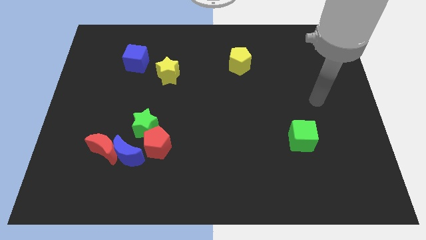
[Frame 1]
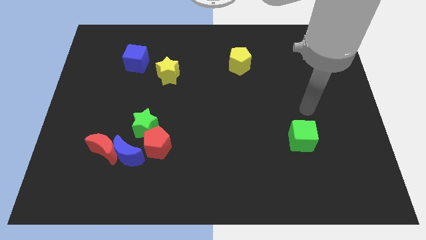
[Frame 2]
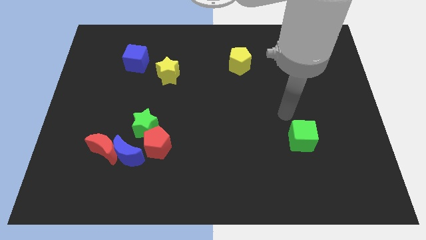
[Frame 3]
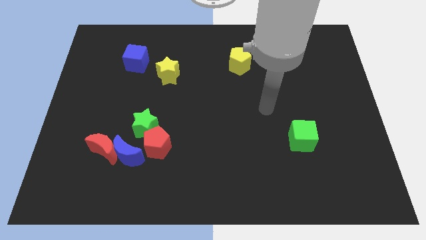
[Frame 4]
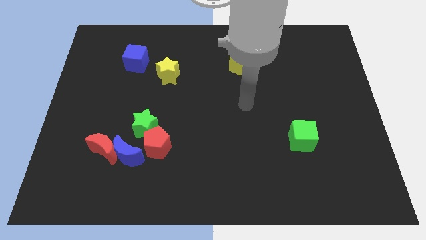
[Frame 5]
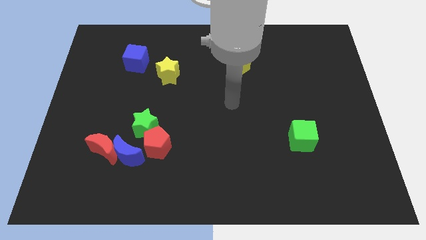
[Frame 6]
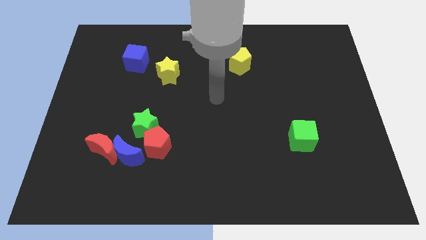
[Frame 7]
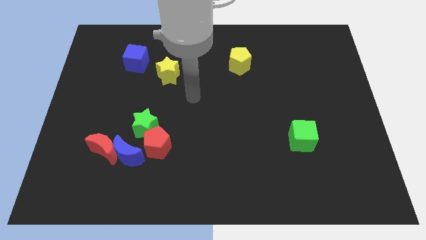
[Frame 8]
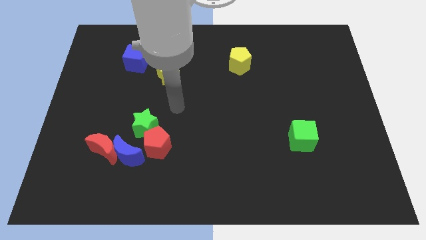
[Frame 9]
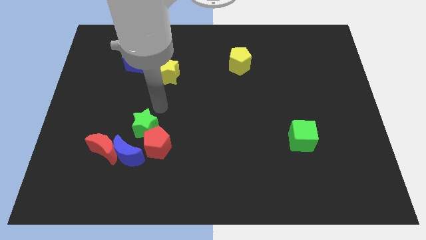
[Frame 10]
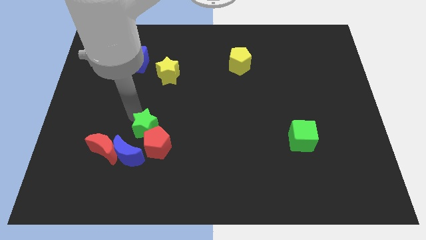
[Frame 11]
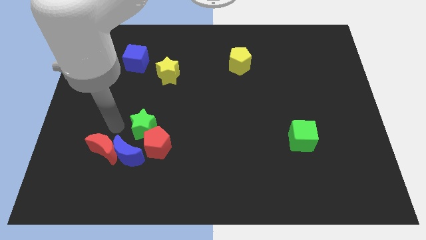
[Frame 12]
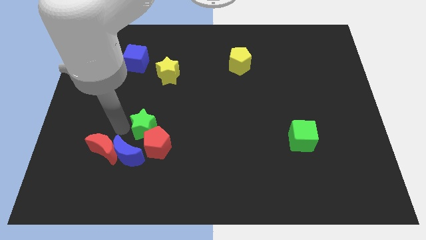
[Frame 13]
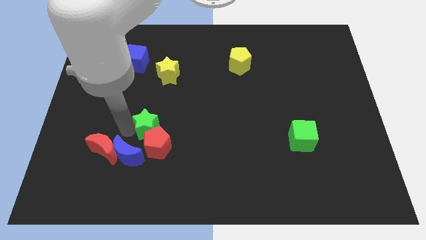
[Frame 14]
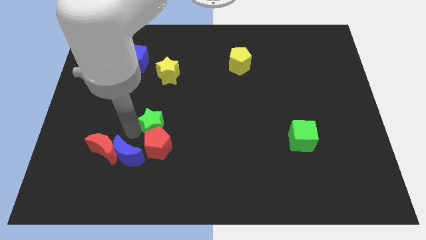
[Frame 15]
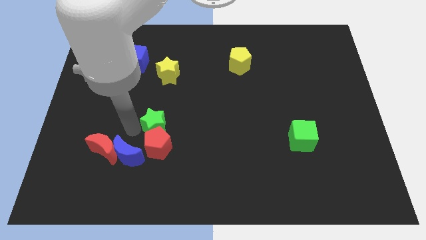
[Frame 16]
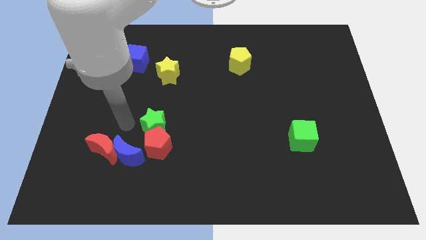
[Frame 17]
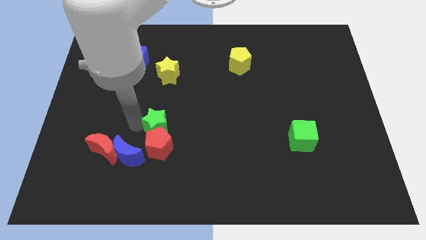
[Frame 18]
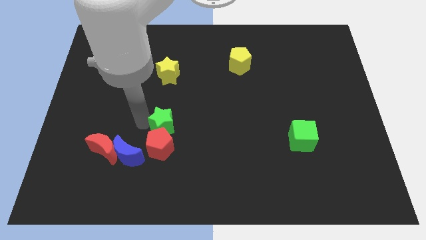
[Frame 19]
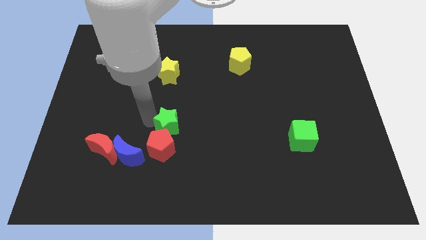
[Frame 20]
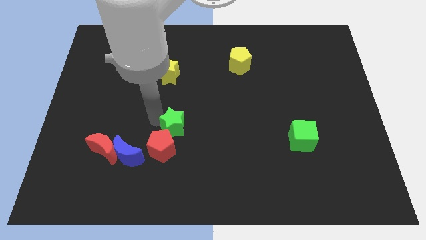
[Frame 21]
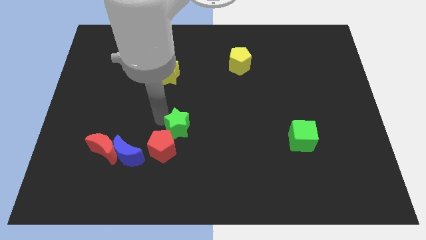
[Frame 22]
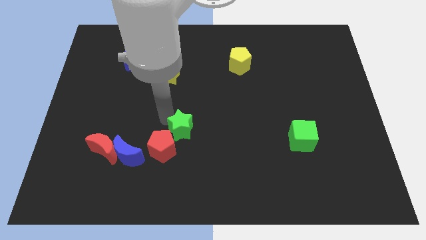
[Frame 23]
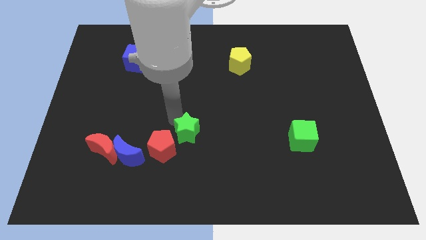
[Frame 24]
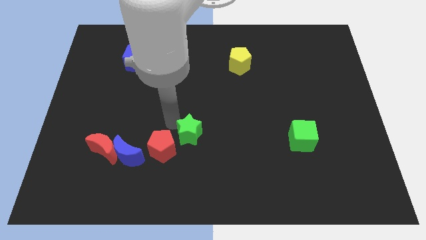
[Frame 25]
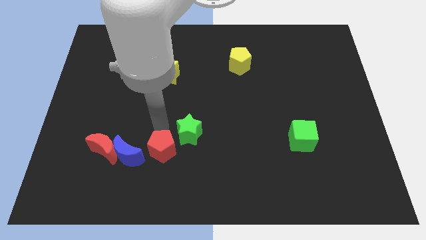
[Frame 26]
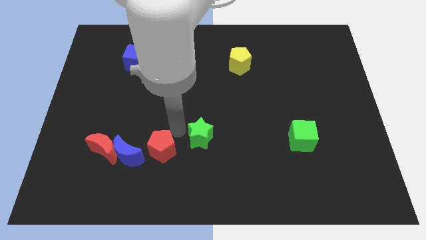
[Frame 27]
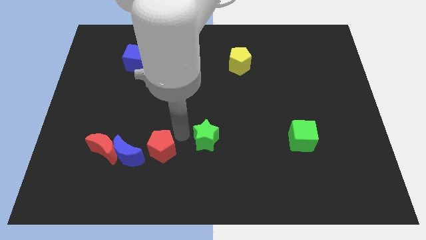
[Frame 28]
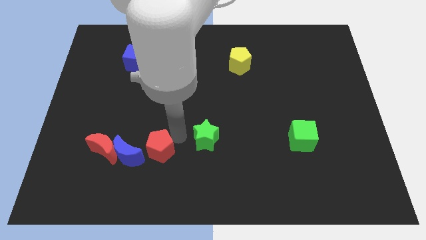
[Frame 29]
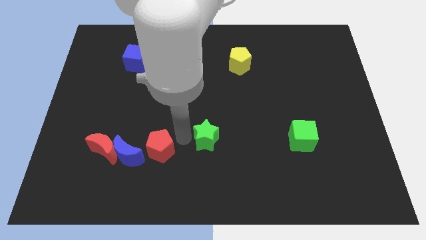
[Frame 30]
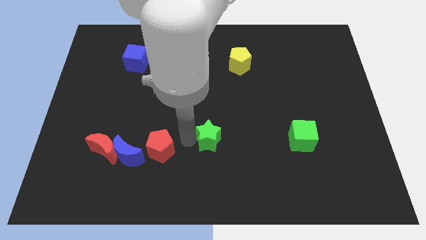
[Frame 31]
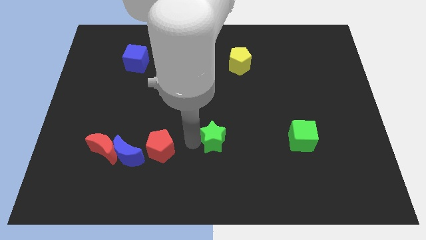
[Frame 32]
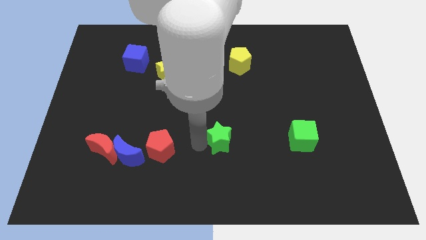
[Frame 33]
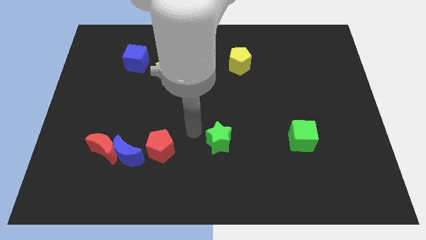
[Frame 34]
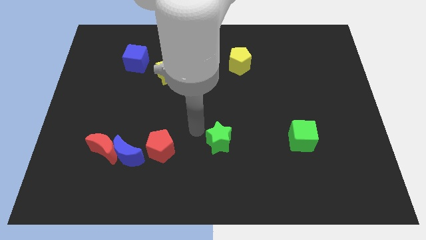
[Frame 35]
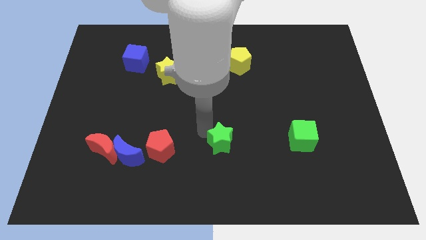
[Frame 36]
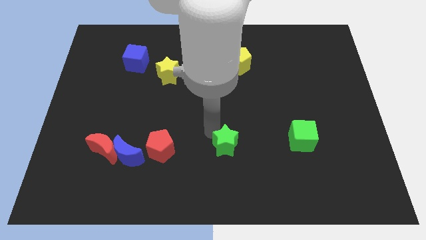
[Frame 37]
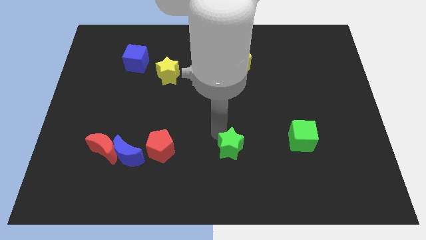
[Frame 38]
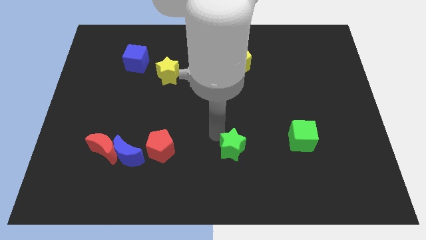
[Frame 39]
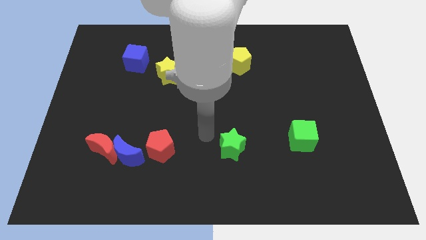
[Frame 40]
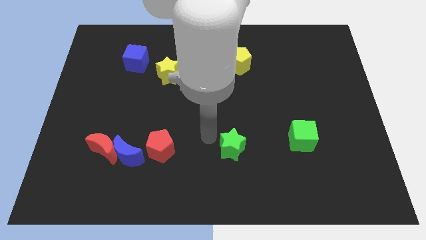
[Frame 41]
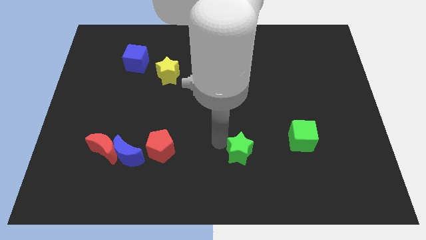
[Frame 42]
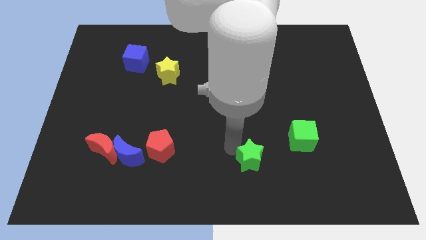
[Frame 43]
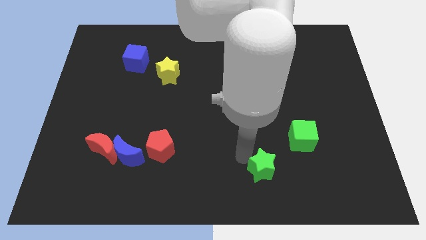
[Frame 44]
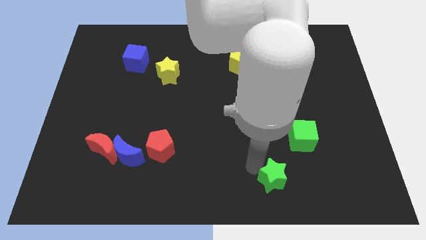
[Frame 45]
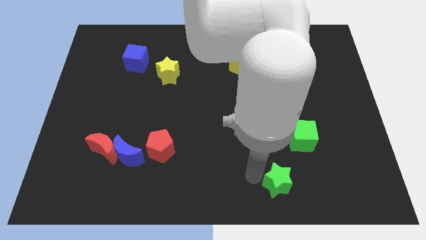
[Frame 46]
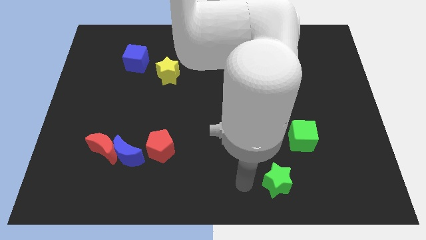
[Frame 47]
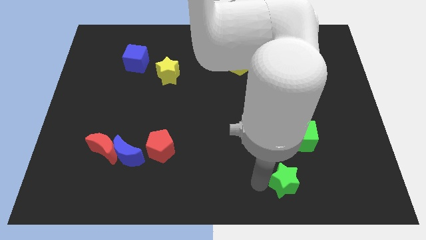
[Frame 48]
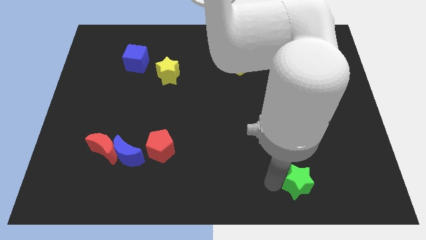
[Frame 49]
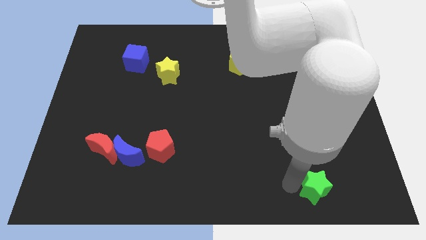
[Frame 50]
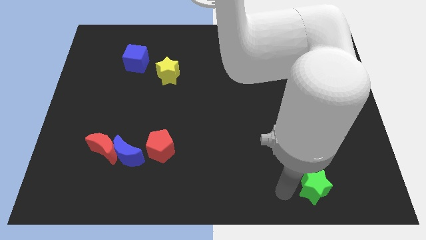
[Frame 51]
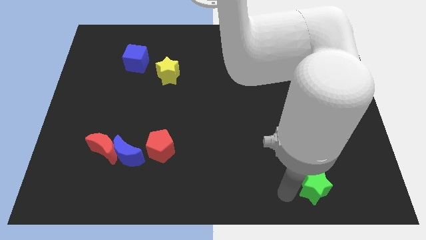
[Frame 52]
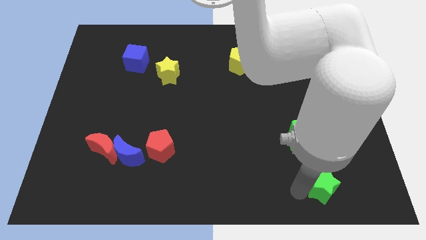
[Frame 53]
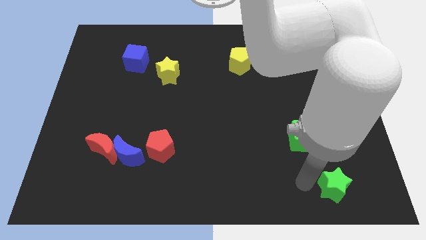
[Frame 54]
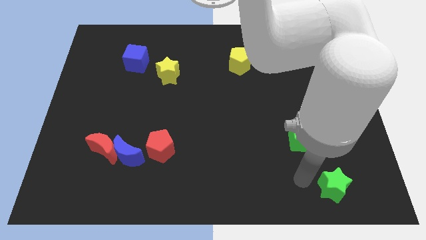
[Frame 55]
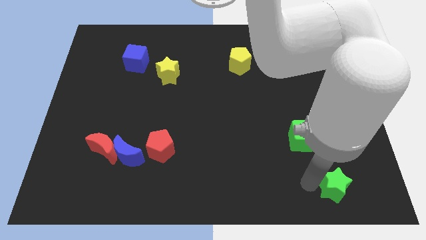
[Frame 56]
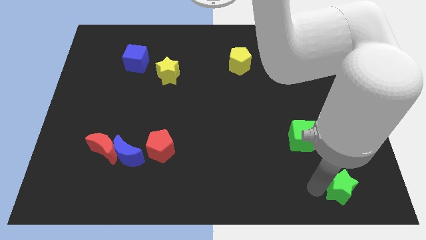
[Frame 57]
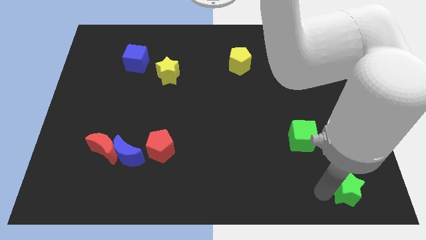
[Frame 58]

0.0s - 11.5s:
put the green star to the lower right corner

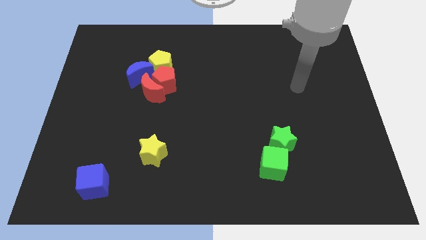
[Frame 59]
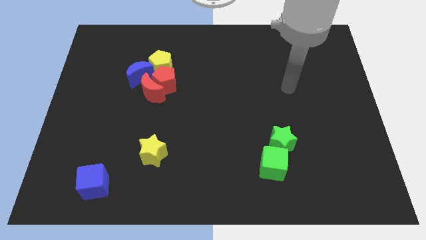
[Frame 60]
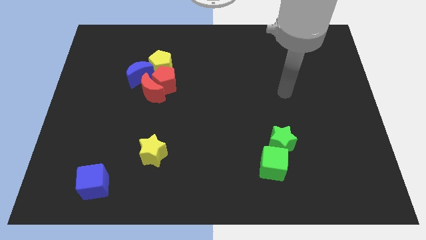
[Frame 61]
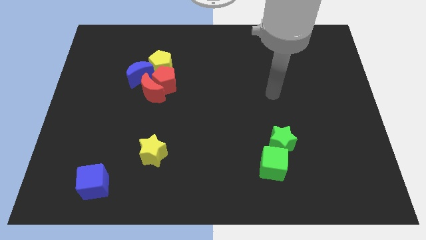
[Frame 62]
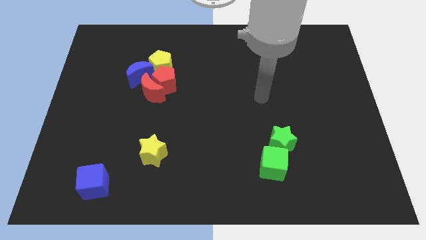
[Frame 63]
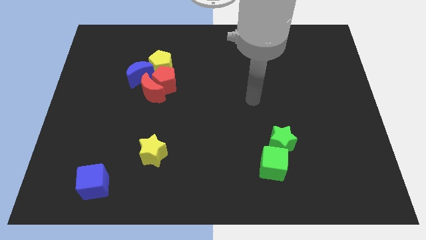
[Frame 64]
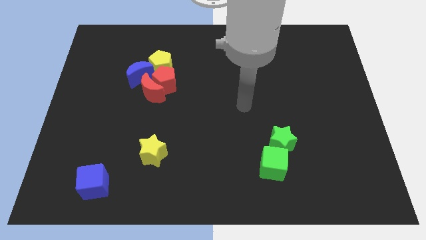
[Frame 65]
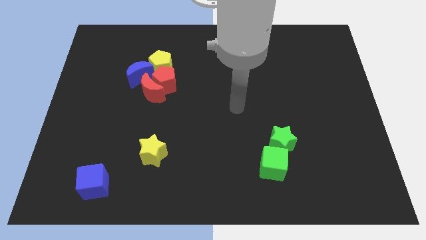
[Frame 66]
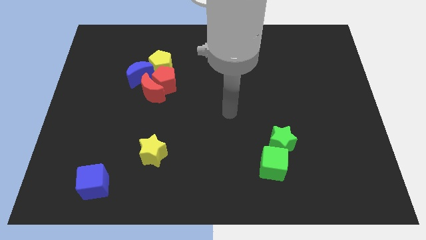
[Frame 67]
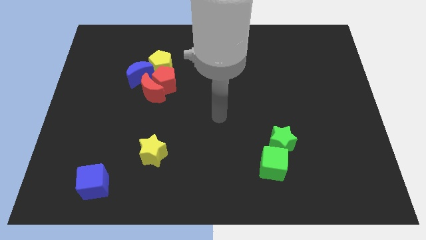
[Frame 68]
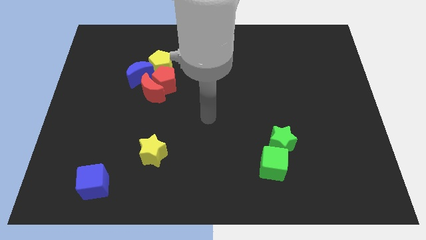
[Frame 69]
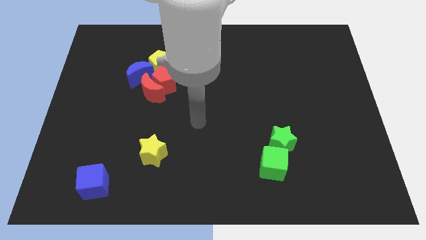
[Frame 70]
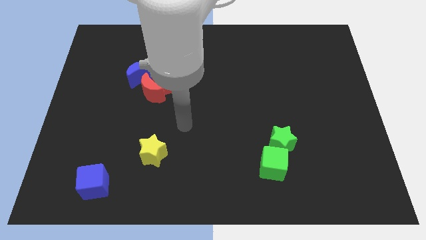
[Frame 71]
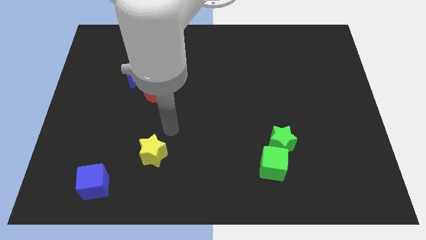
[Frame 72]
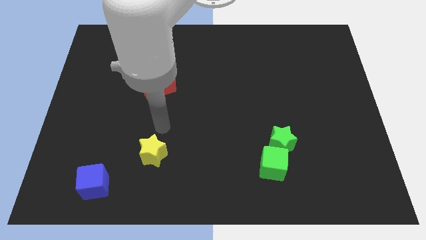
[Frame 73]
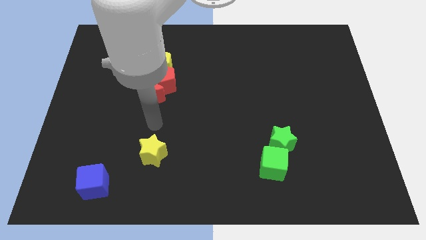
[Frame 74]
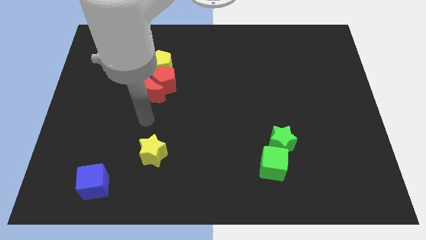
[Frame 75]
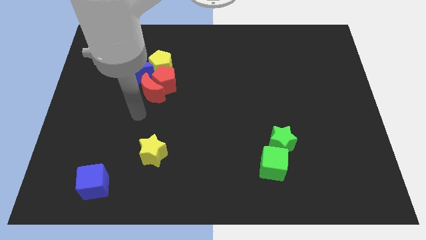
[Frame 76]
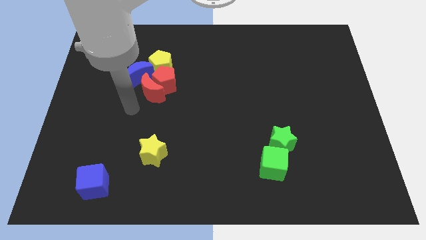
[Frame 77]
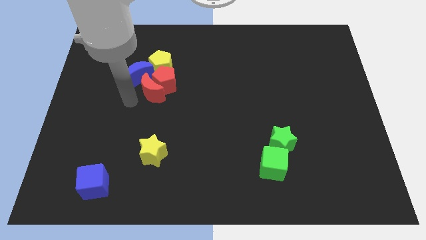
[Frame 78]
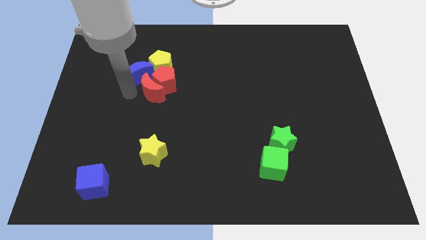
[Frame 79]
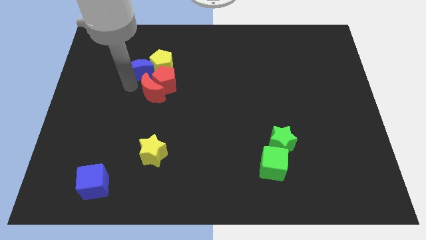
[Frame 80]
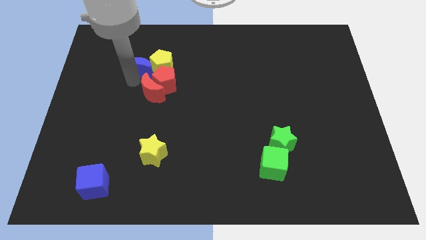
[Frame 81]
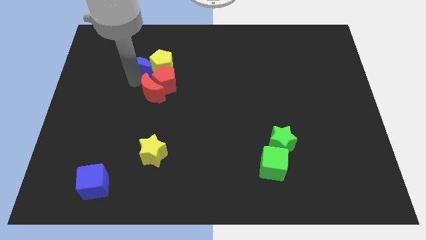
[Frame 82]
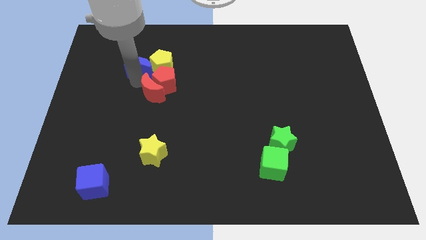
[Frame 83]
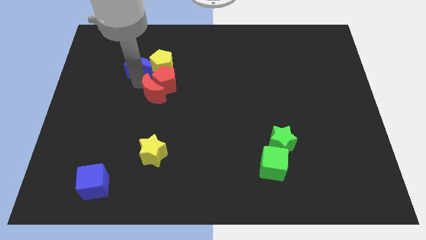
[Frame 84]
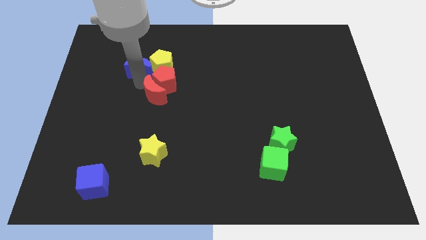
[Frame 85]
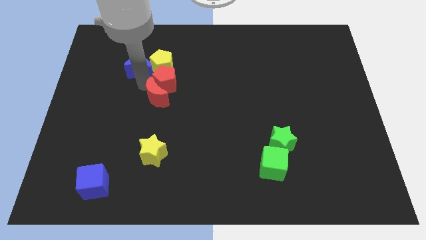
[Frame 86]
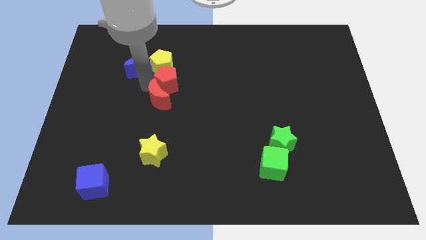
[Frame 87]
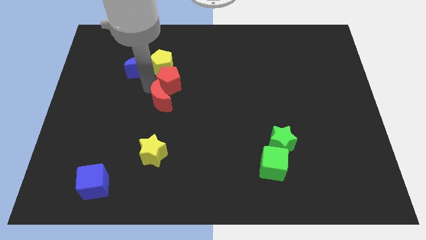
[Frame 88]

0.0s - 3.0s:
put the red moon to the middle
